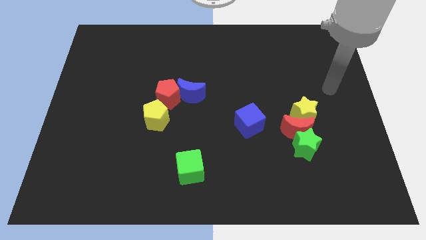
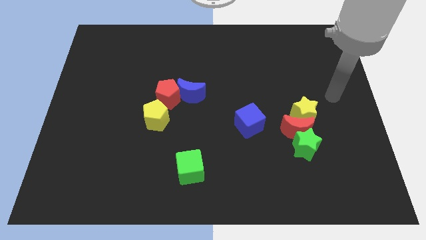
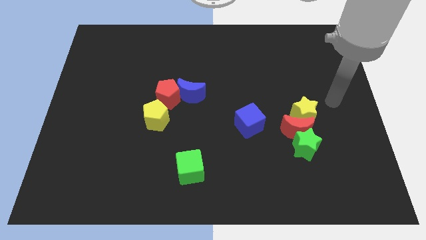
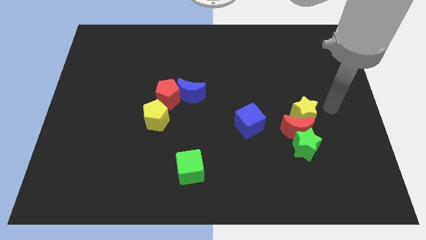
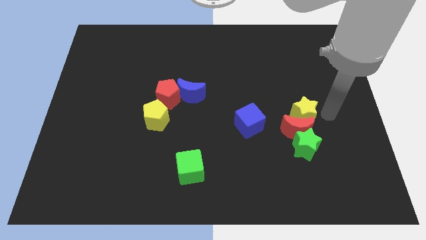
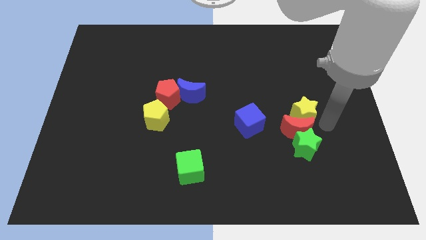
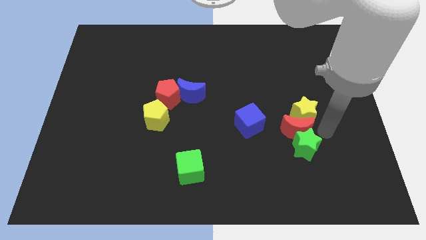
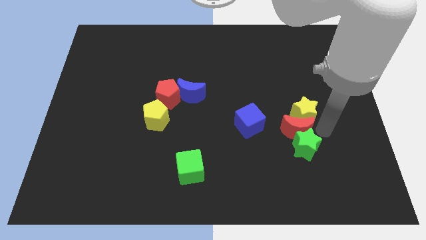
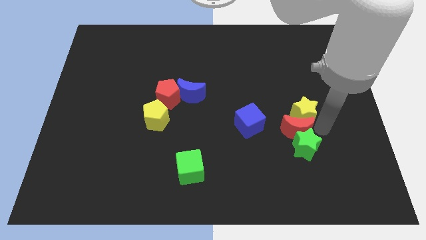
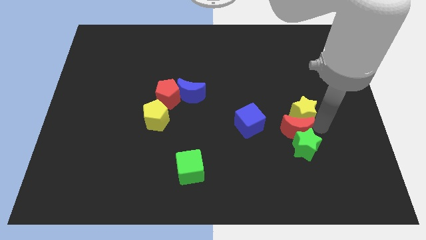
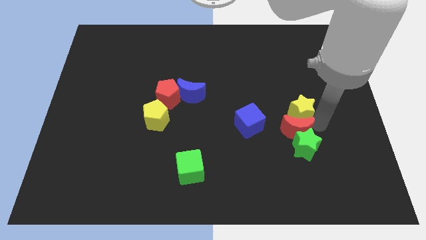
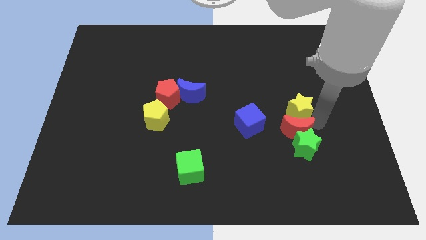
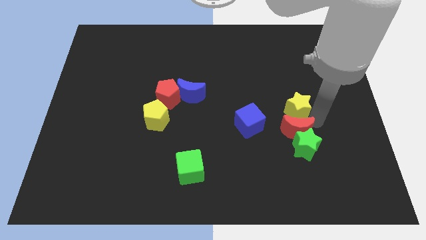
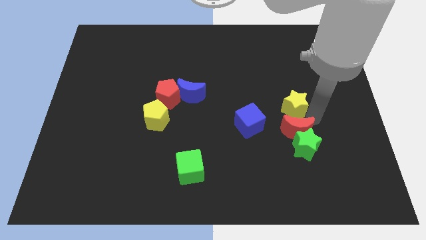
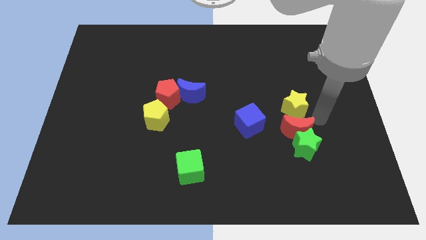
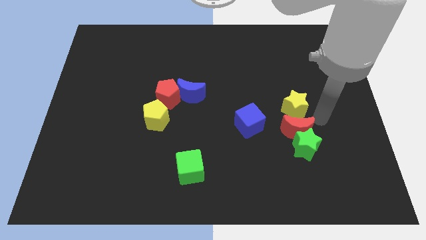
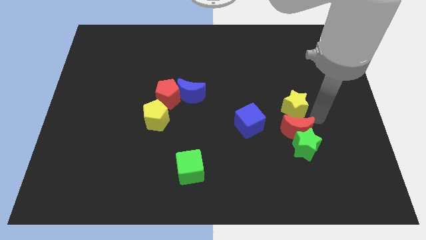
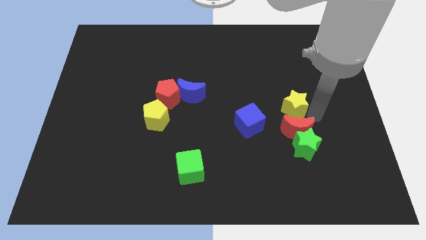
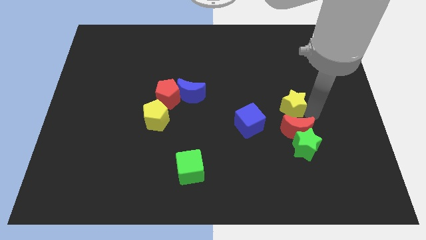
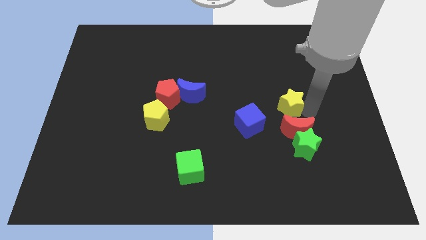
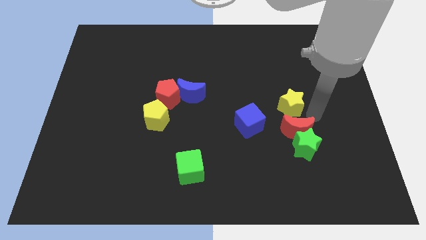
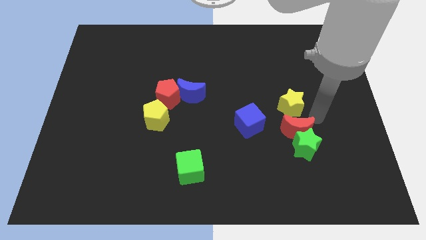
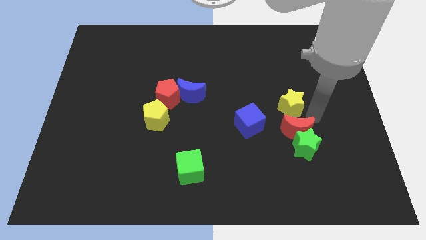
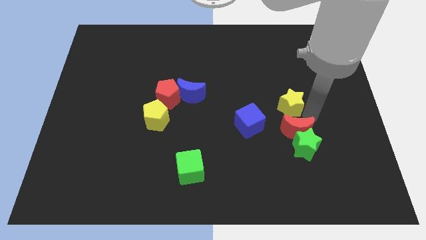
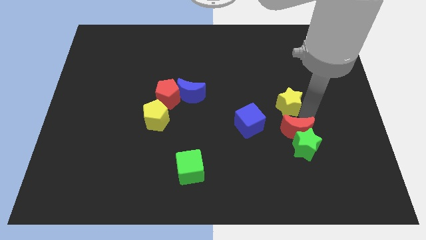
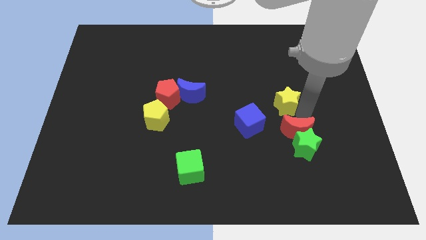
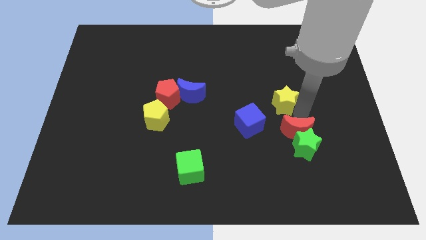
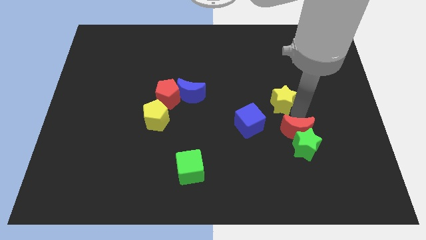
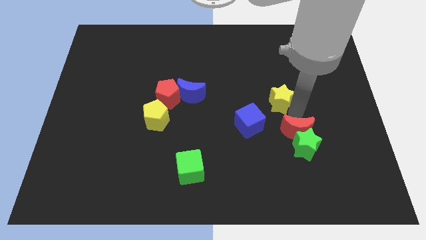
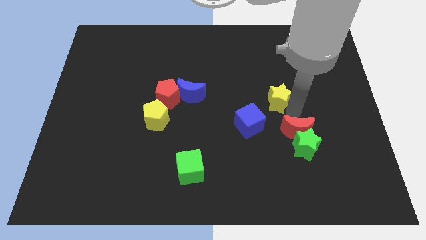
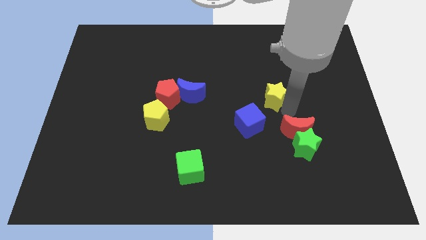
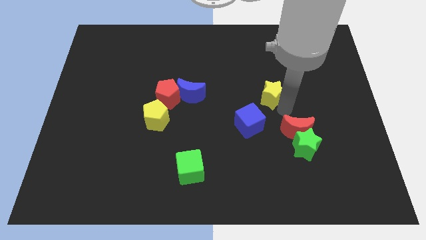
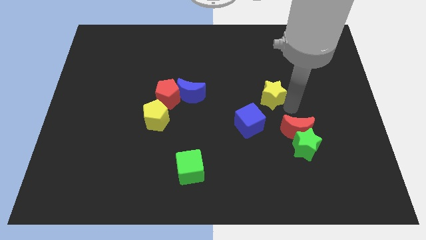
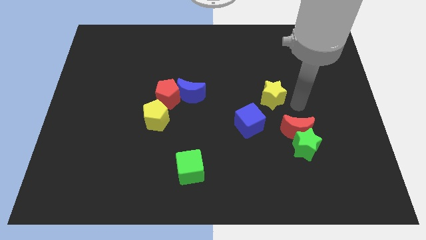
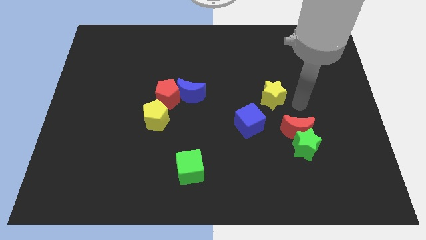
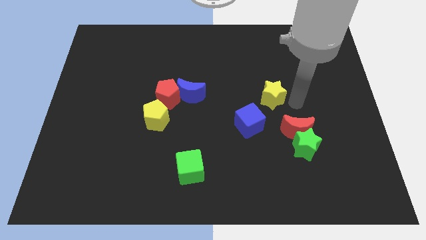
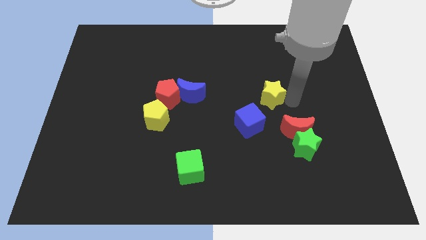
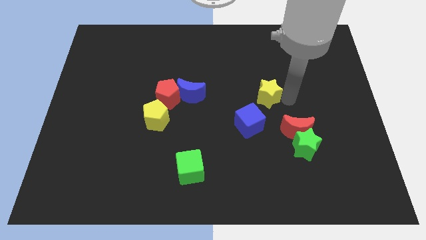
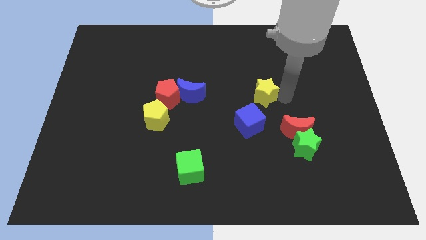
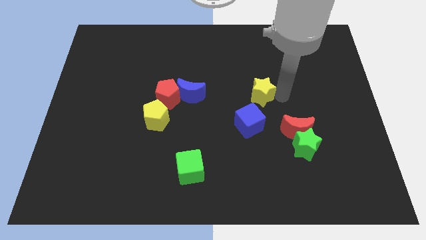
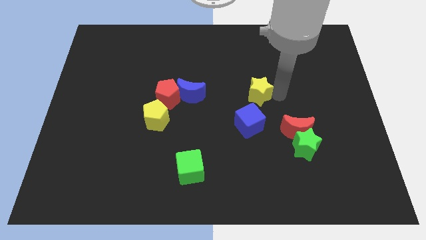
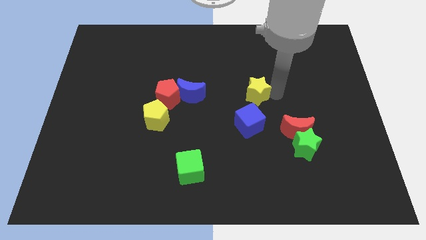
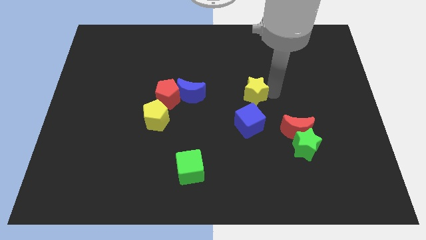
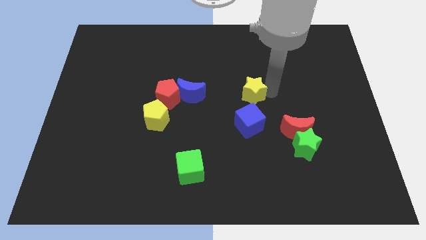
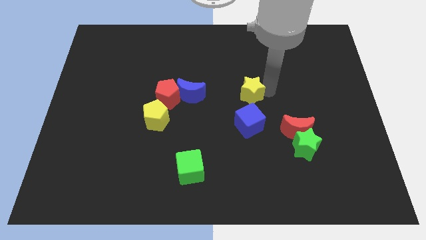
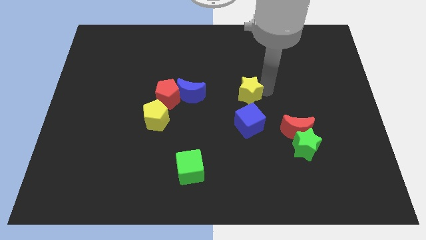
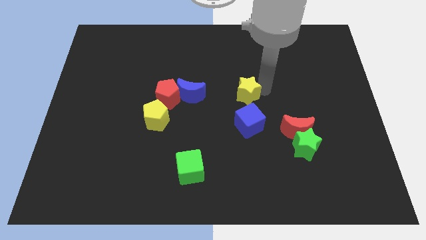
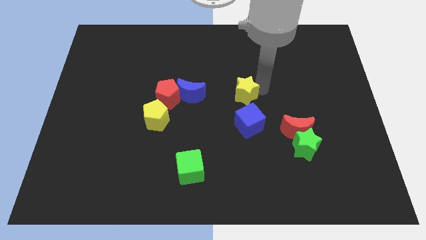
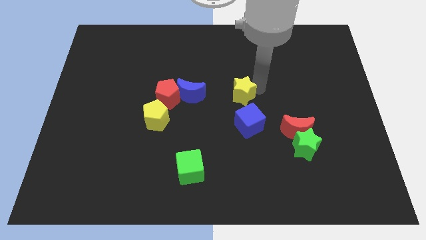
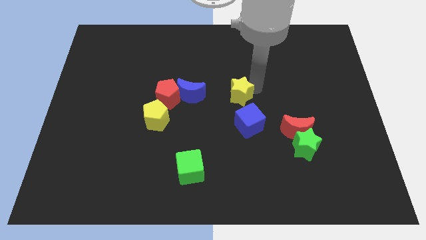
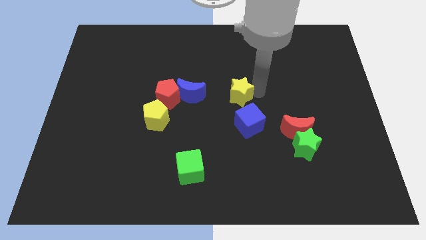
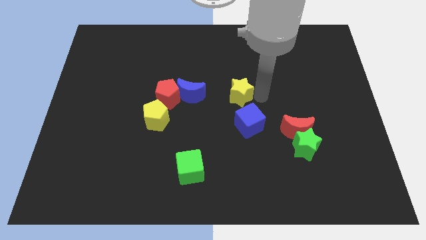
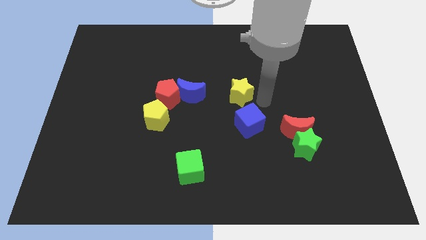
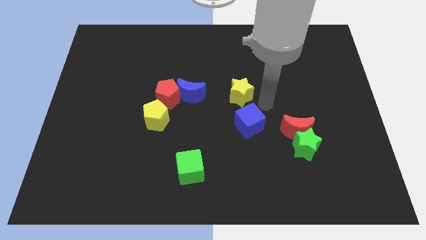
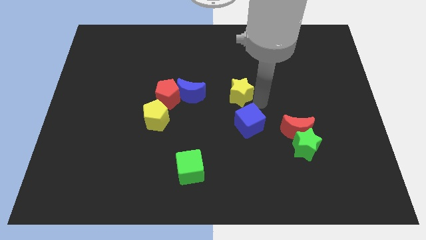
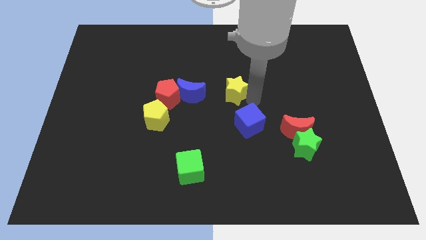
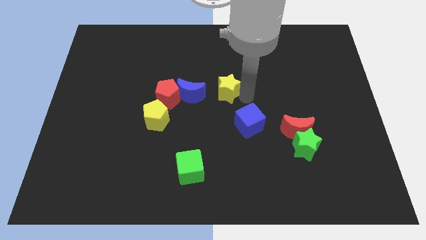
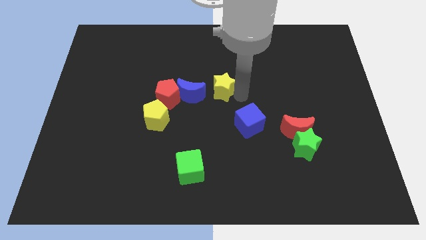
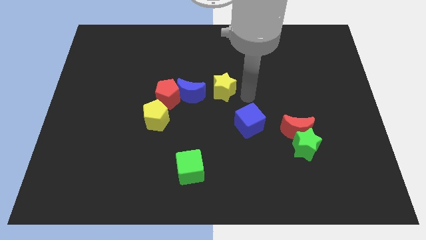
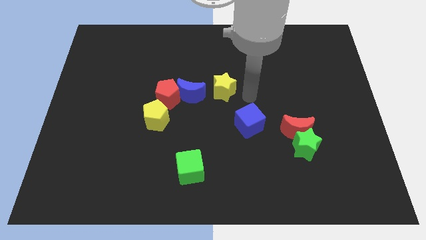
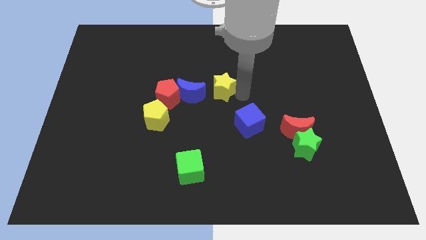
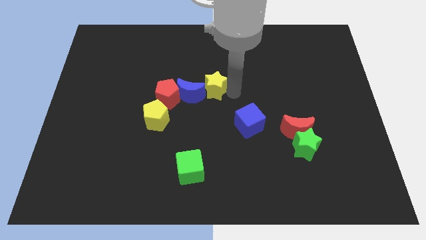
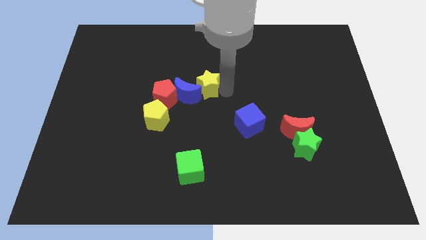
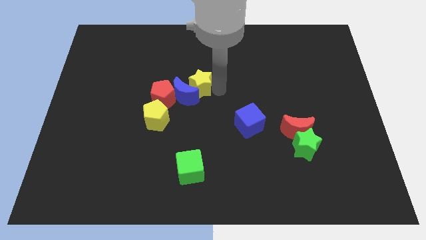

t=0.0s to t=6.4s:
slide the yellow star to the top right of the red pentagon

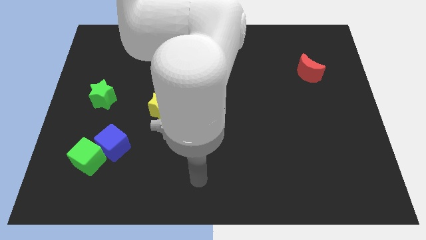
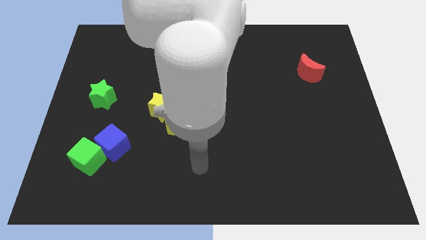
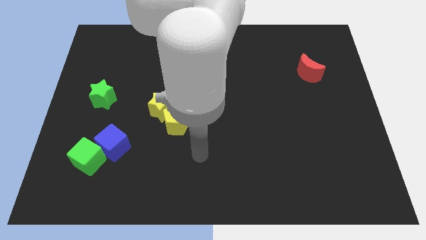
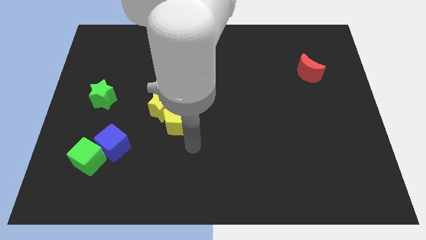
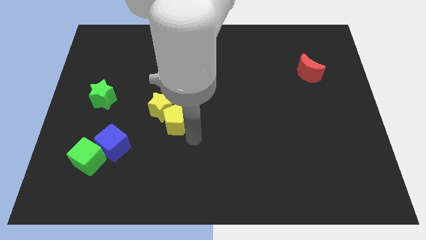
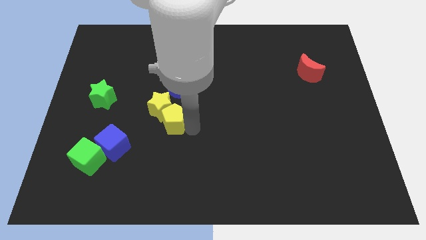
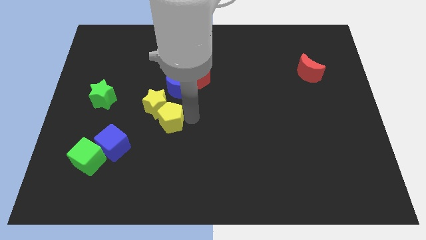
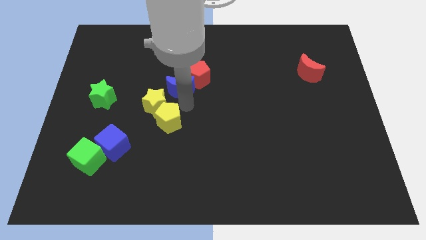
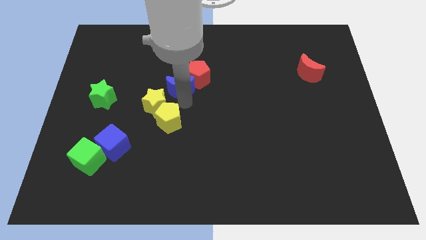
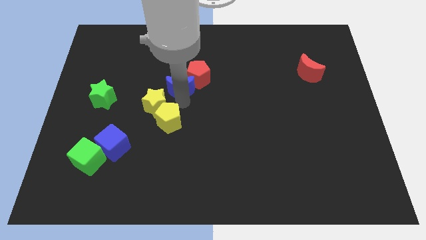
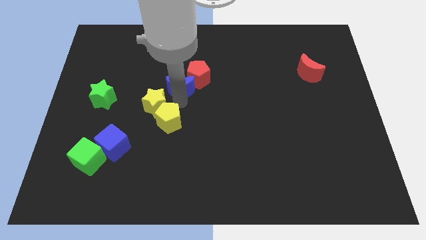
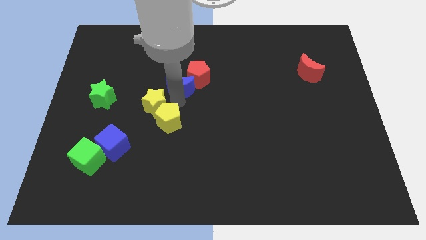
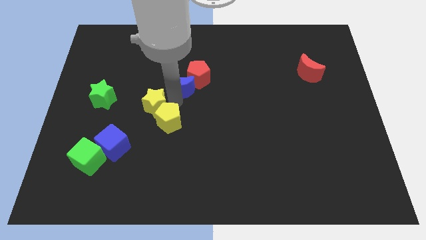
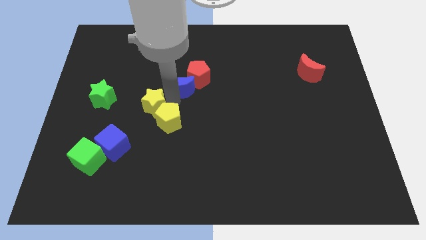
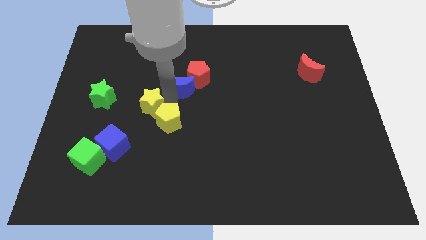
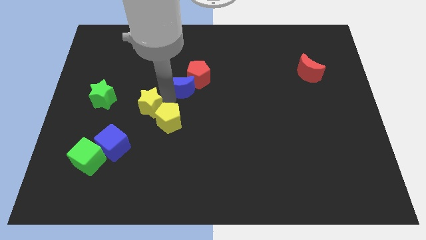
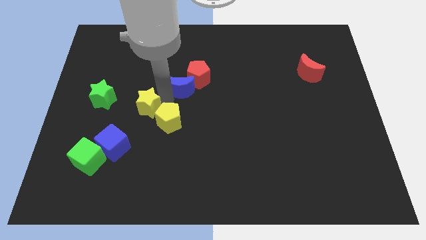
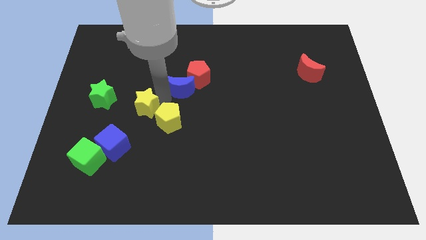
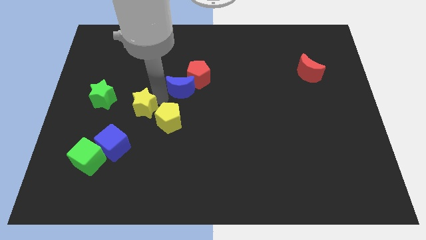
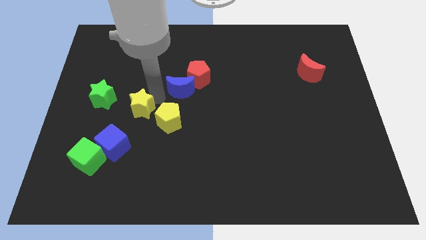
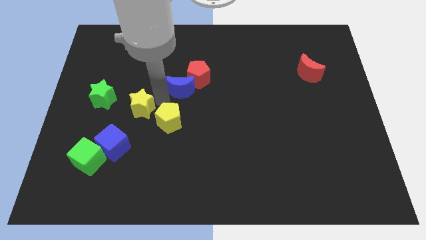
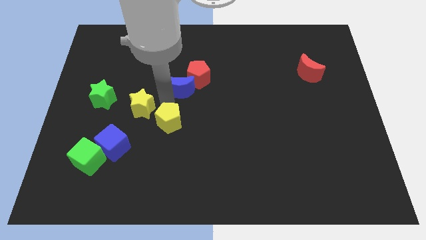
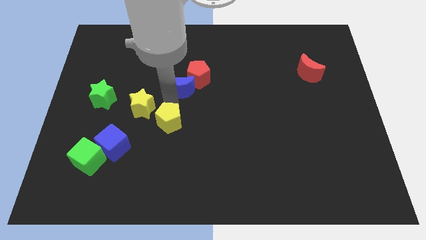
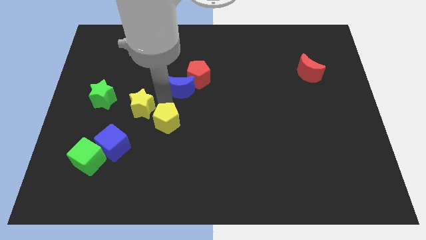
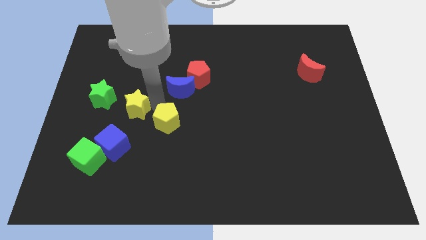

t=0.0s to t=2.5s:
put the yellow star to the top of the blue cube
